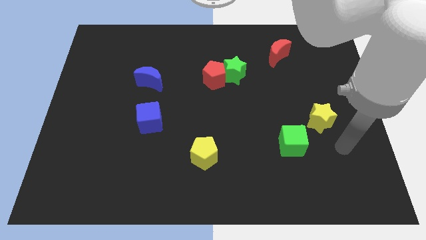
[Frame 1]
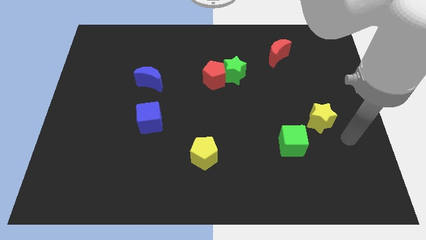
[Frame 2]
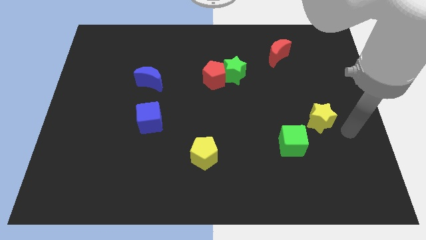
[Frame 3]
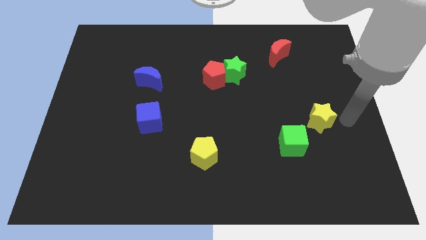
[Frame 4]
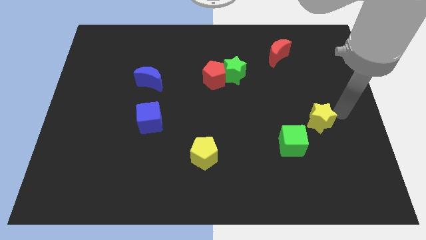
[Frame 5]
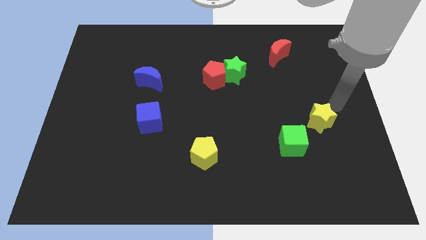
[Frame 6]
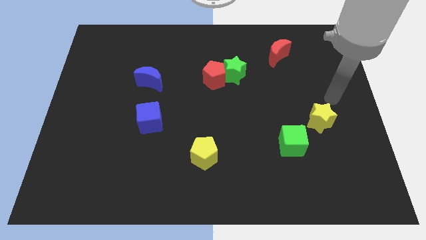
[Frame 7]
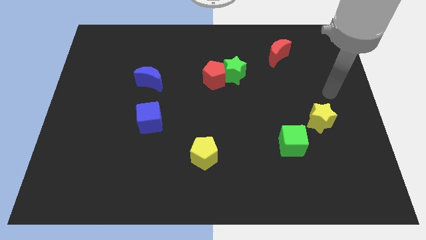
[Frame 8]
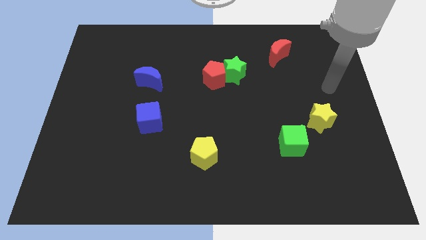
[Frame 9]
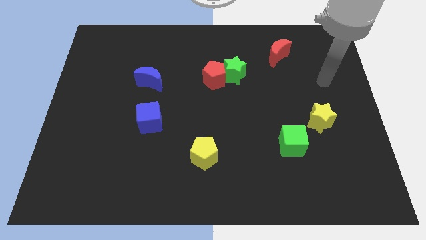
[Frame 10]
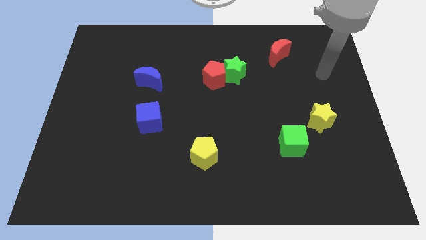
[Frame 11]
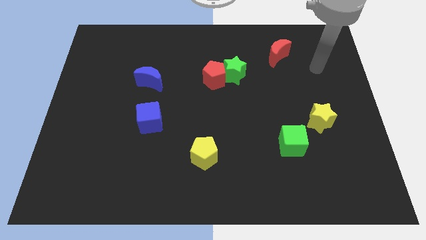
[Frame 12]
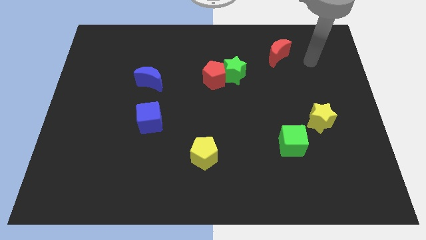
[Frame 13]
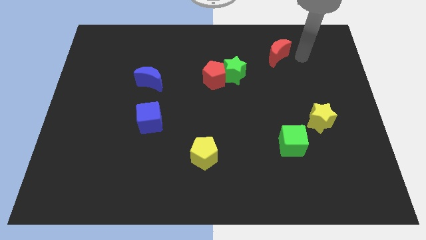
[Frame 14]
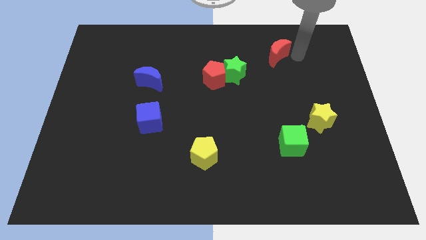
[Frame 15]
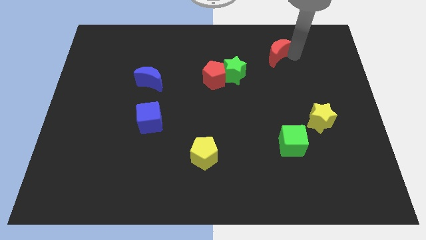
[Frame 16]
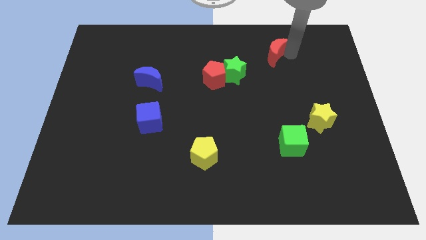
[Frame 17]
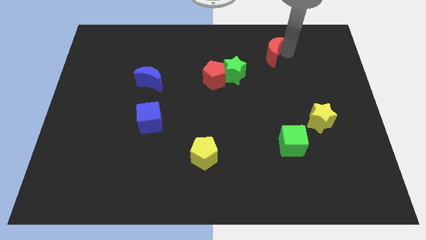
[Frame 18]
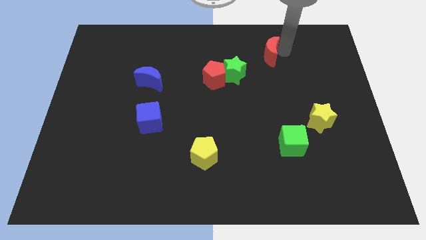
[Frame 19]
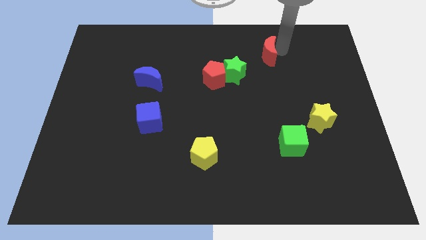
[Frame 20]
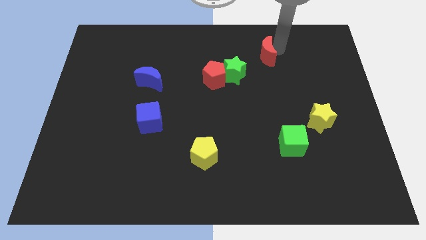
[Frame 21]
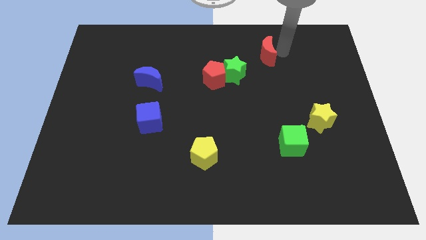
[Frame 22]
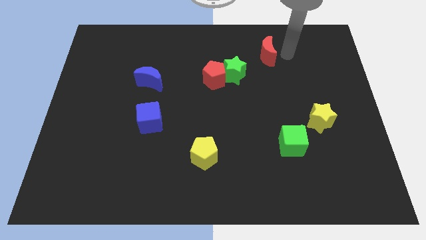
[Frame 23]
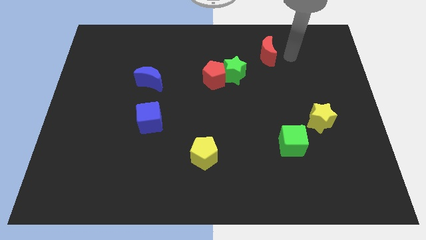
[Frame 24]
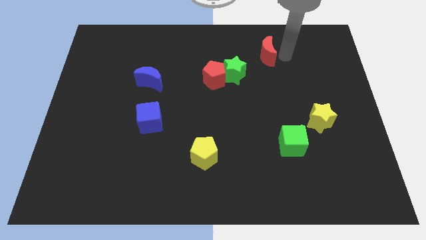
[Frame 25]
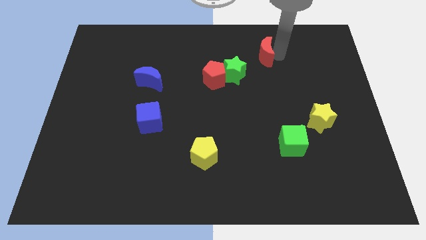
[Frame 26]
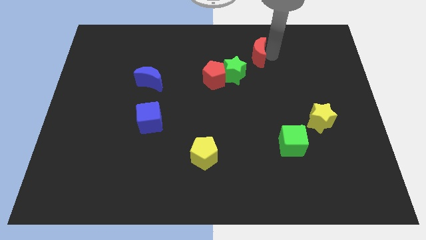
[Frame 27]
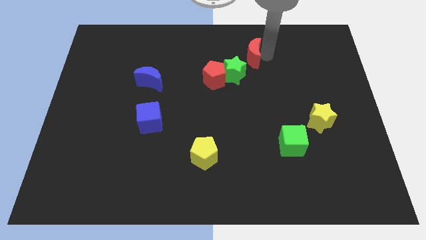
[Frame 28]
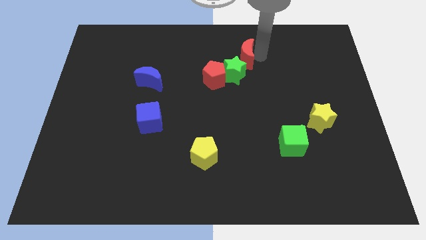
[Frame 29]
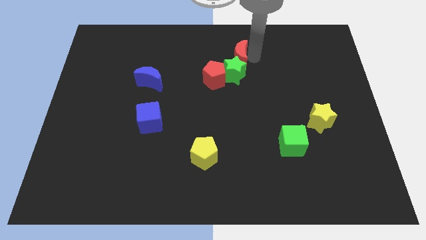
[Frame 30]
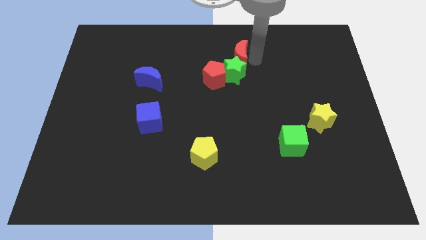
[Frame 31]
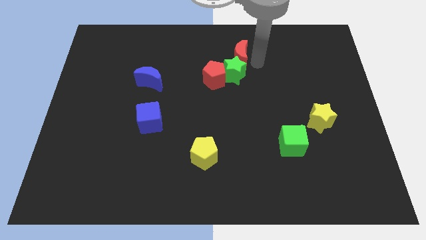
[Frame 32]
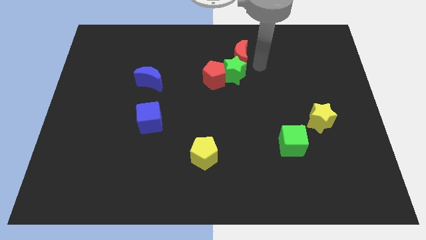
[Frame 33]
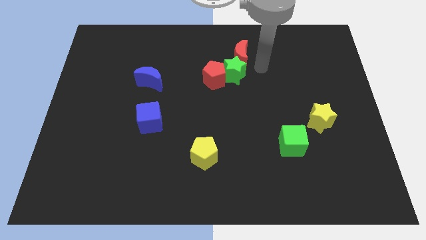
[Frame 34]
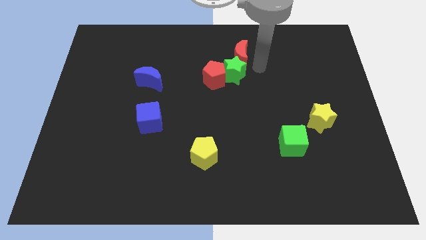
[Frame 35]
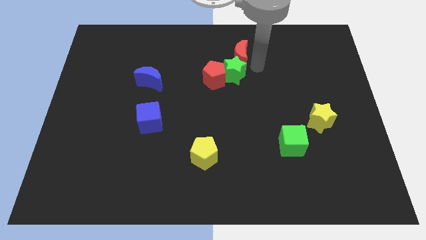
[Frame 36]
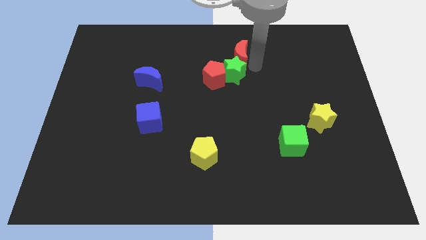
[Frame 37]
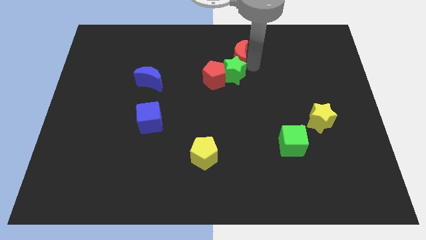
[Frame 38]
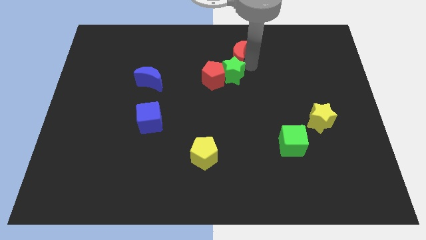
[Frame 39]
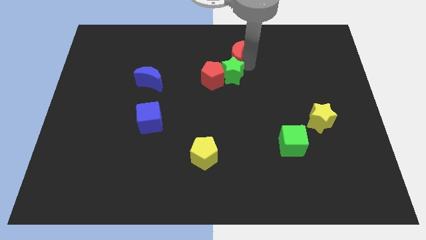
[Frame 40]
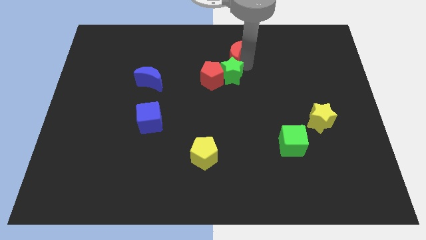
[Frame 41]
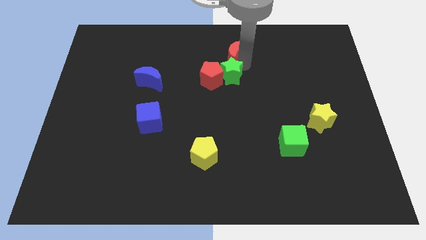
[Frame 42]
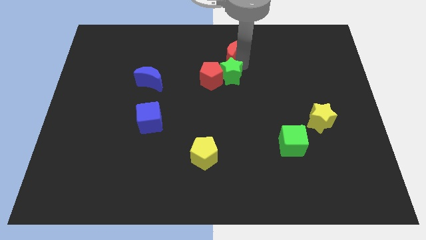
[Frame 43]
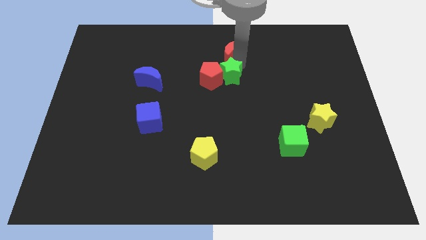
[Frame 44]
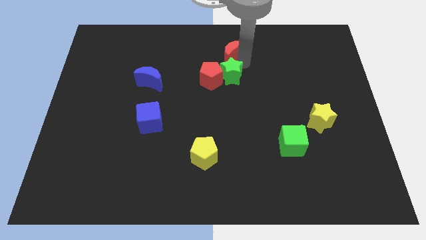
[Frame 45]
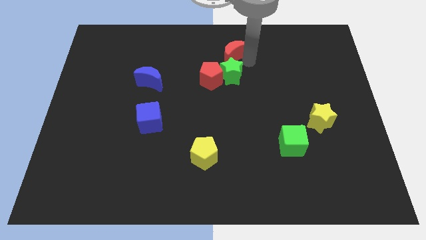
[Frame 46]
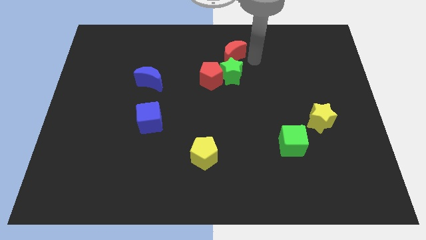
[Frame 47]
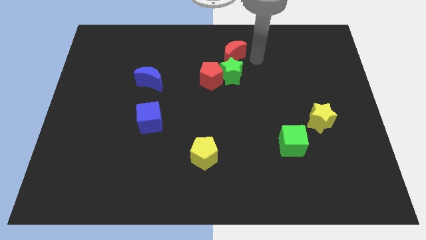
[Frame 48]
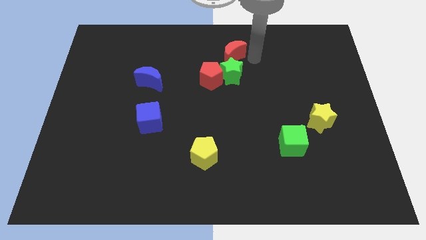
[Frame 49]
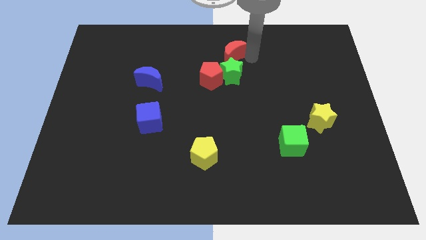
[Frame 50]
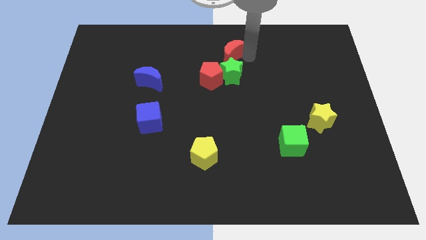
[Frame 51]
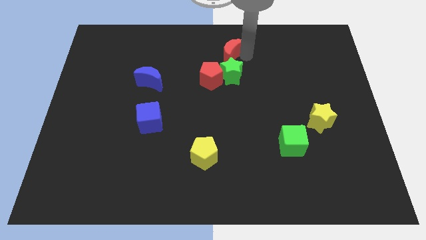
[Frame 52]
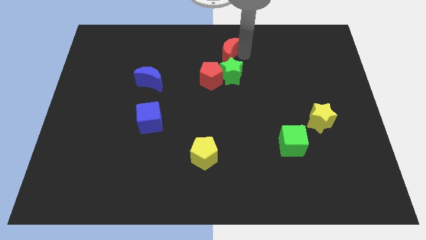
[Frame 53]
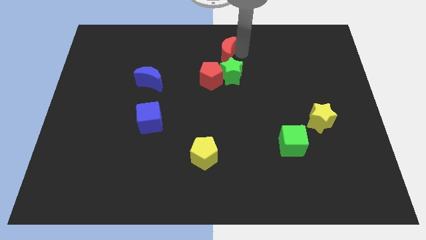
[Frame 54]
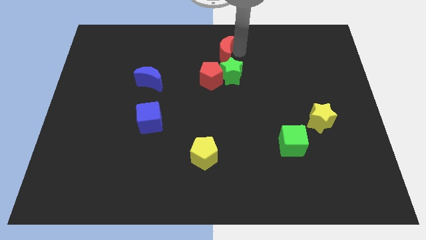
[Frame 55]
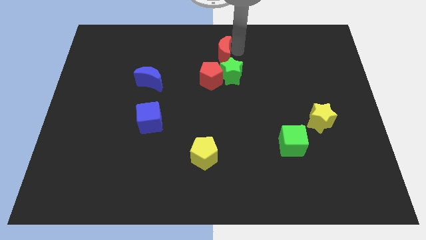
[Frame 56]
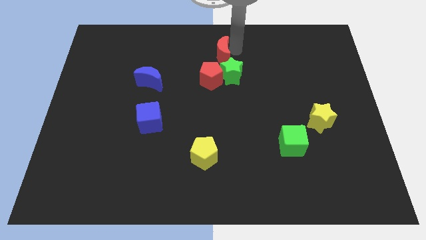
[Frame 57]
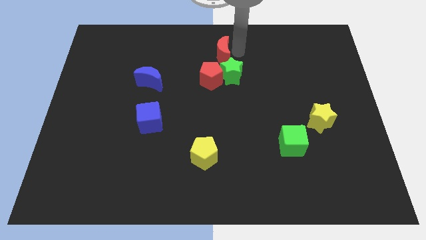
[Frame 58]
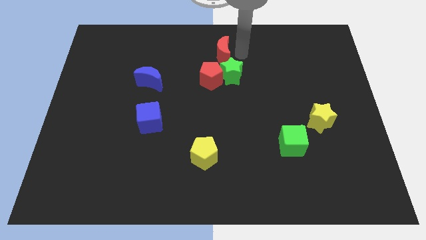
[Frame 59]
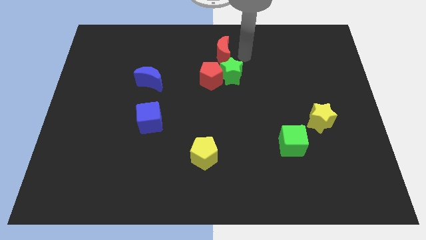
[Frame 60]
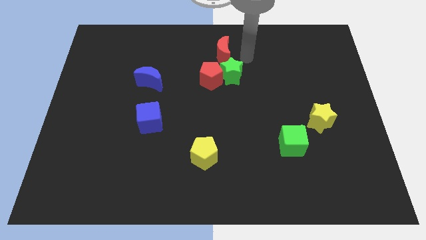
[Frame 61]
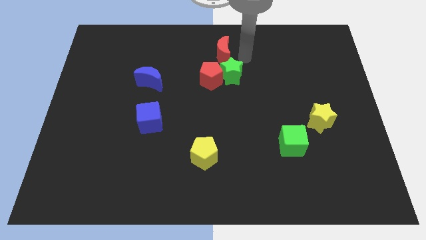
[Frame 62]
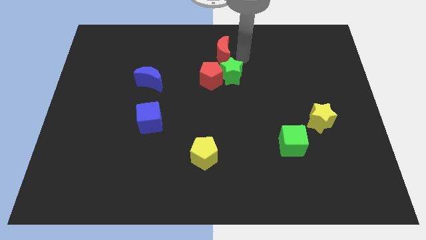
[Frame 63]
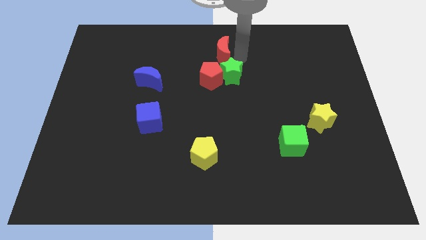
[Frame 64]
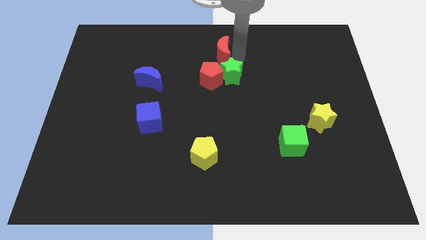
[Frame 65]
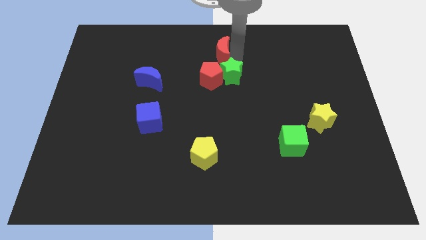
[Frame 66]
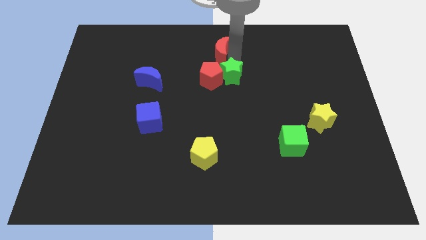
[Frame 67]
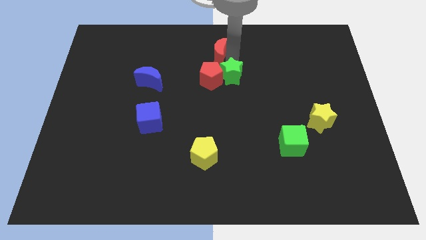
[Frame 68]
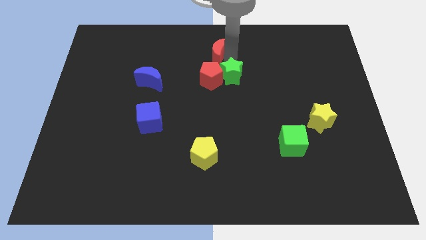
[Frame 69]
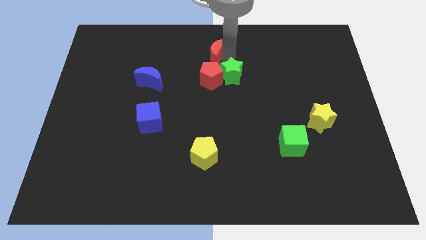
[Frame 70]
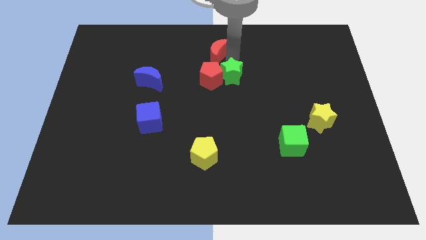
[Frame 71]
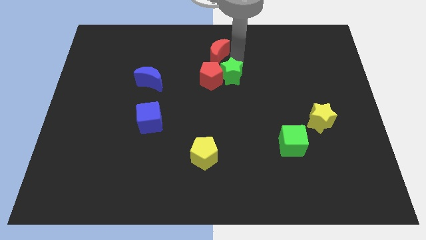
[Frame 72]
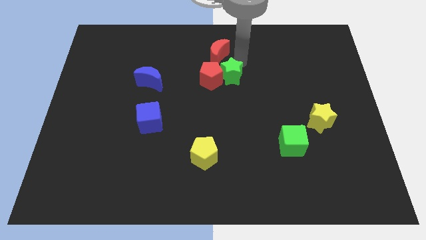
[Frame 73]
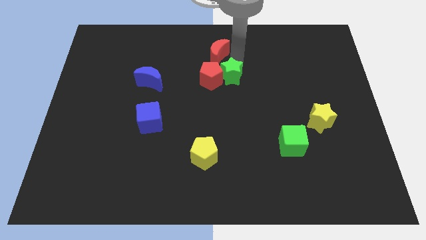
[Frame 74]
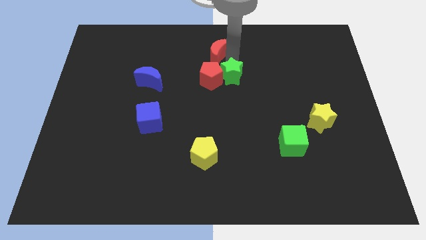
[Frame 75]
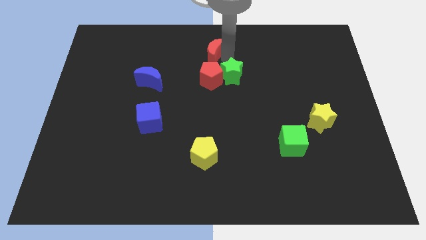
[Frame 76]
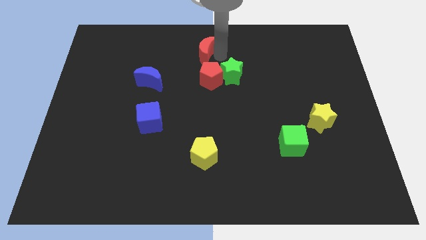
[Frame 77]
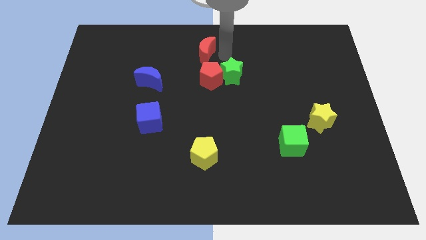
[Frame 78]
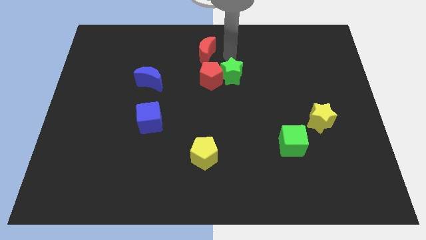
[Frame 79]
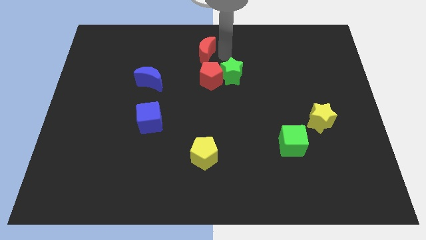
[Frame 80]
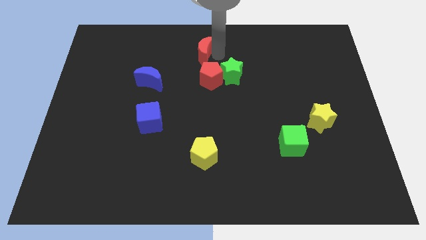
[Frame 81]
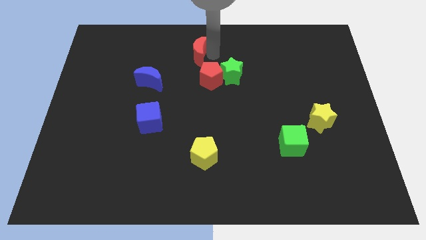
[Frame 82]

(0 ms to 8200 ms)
push the red moon to the left

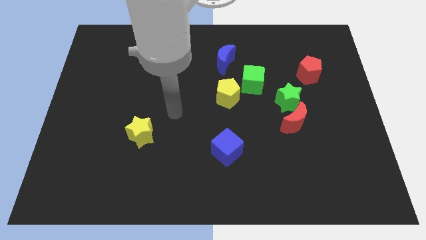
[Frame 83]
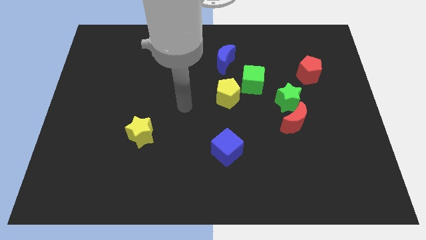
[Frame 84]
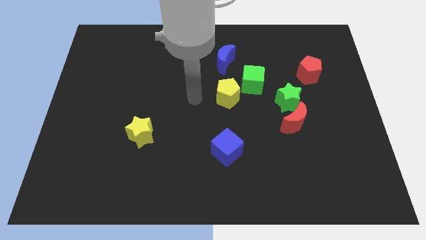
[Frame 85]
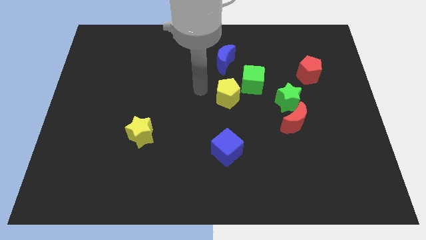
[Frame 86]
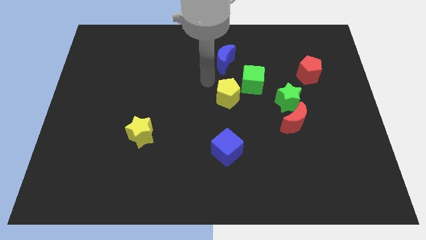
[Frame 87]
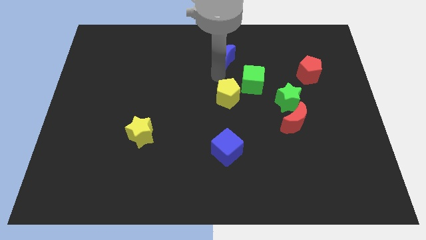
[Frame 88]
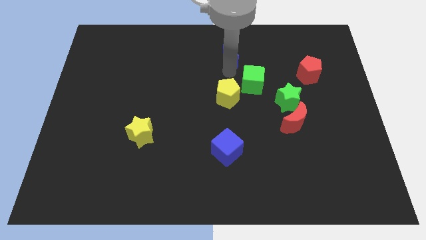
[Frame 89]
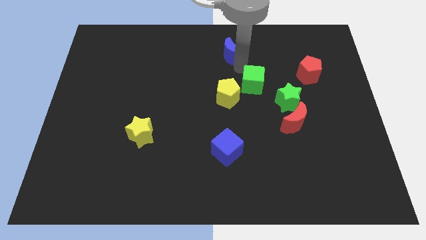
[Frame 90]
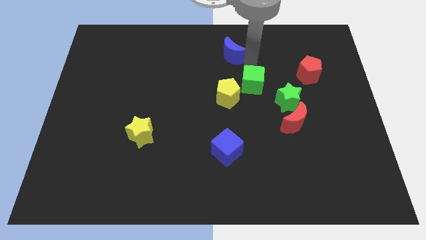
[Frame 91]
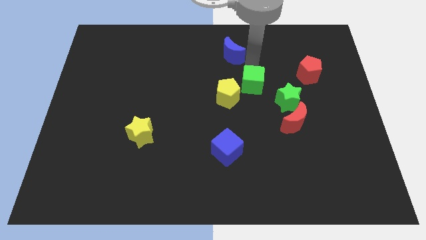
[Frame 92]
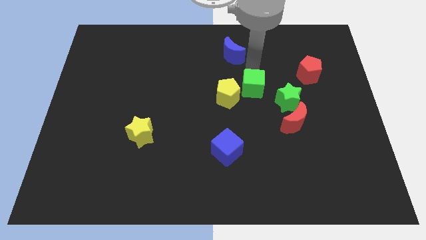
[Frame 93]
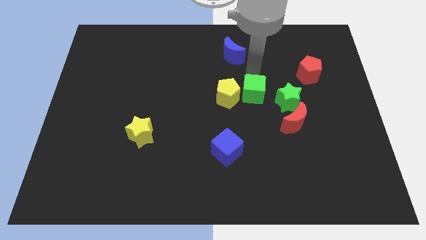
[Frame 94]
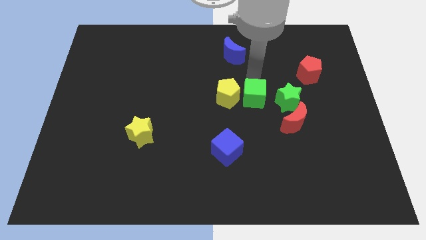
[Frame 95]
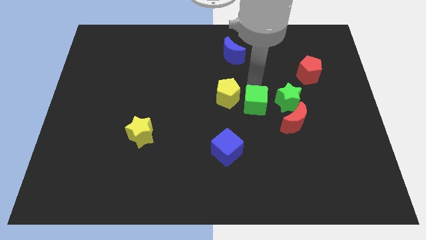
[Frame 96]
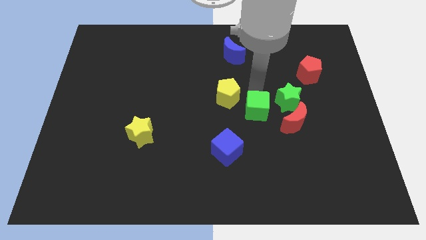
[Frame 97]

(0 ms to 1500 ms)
move the green cube down a little bit
